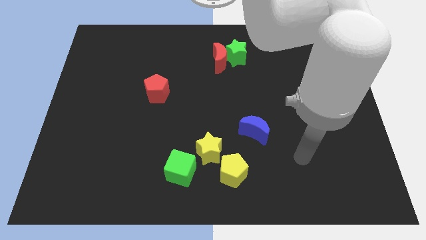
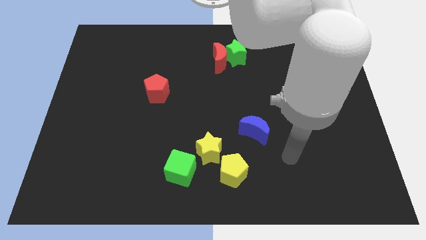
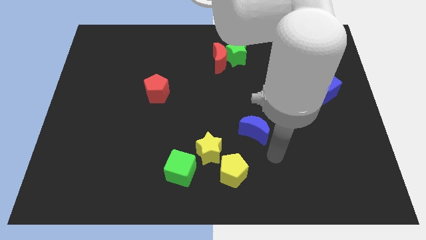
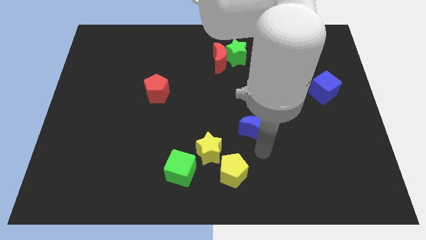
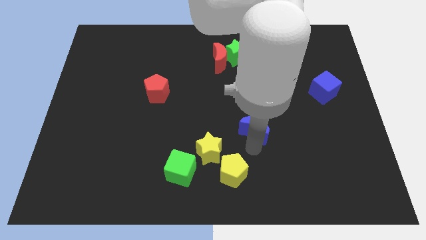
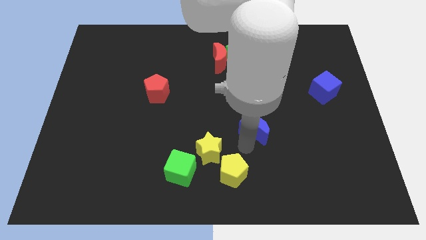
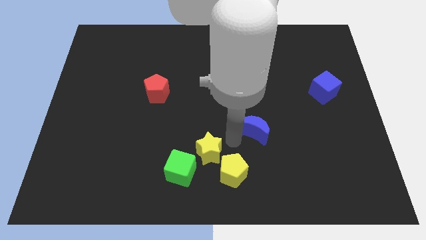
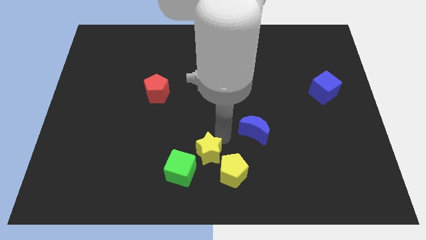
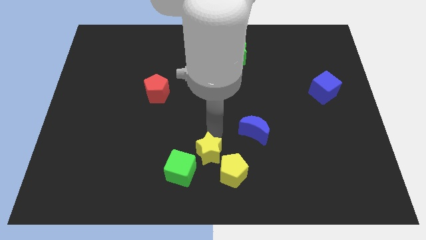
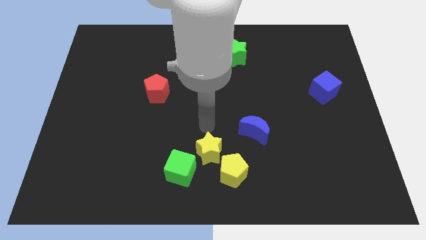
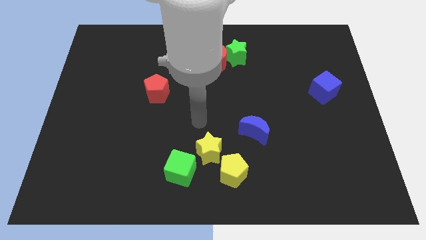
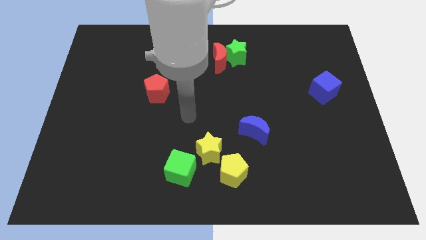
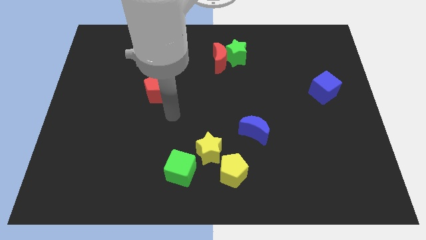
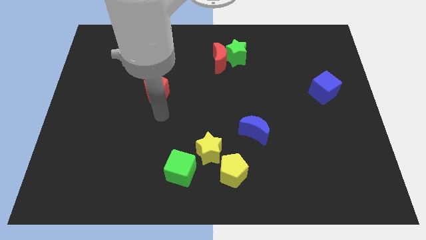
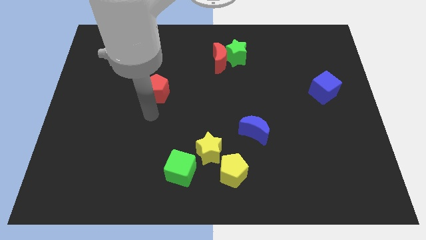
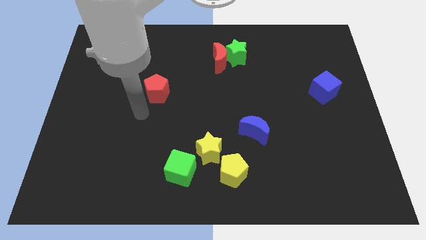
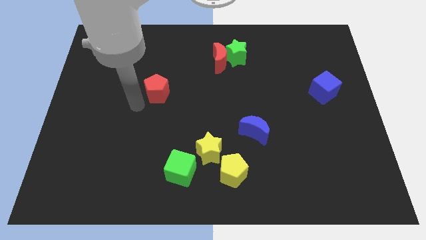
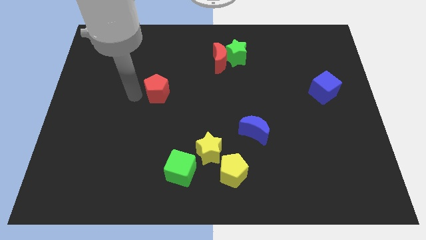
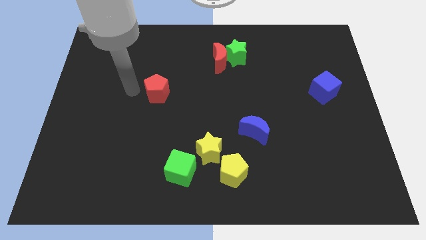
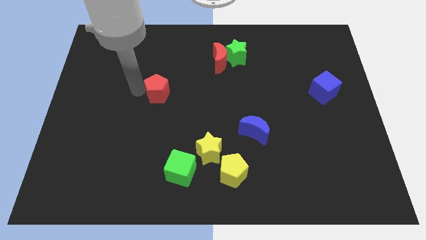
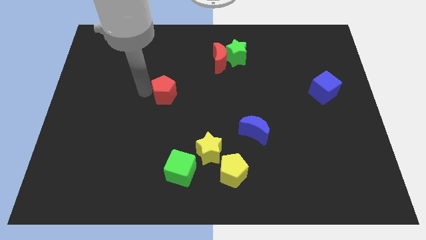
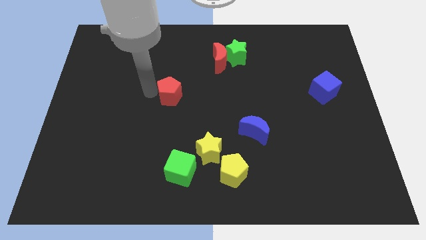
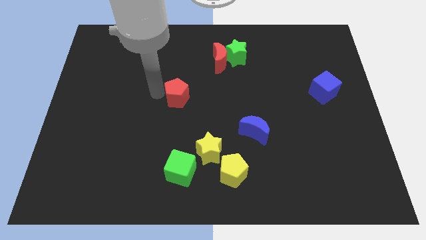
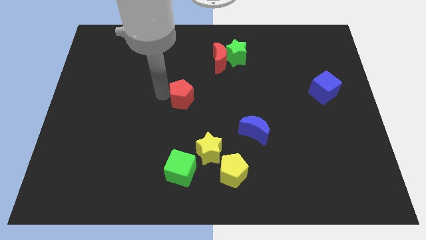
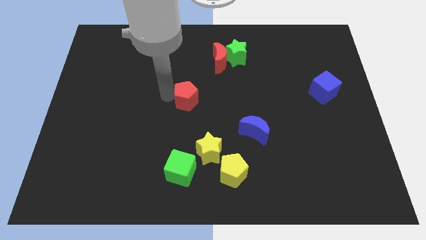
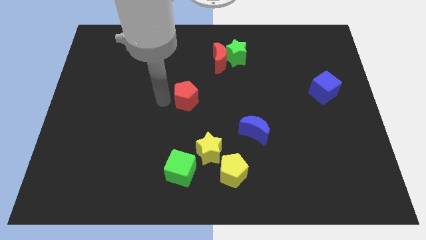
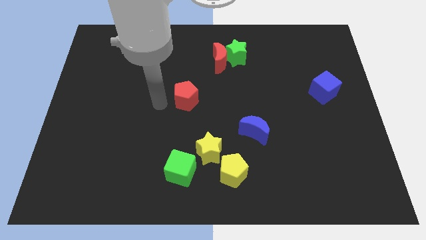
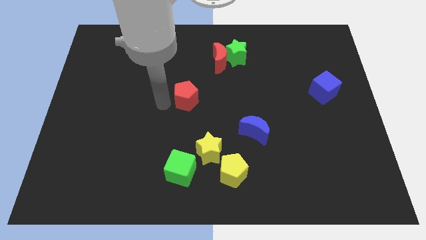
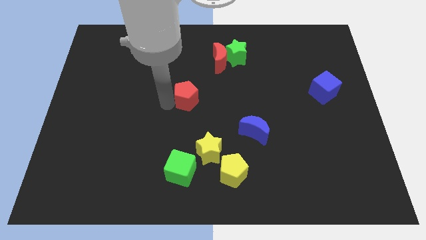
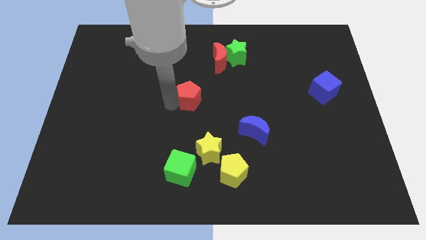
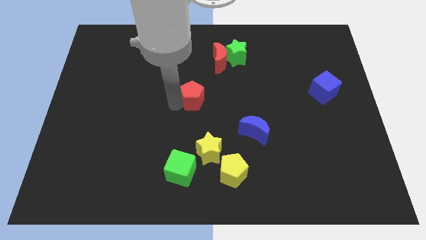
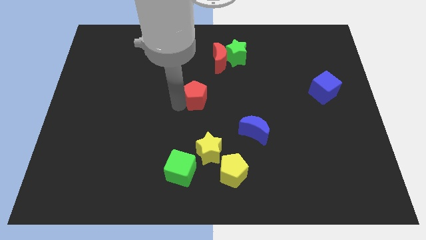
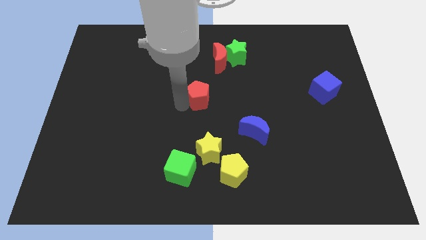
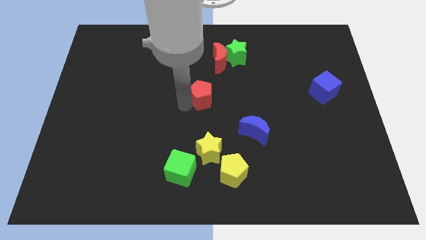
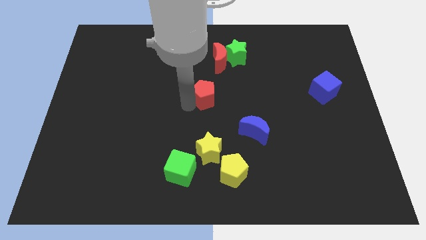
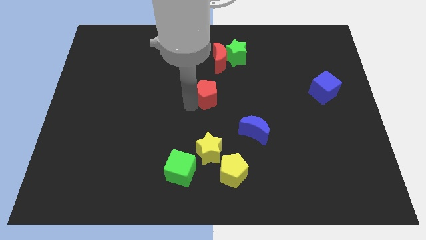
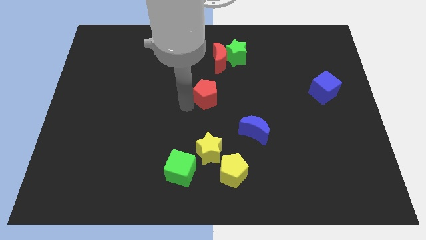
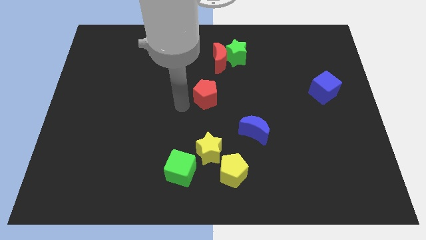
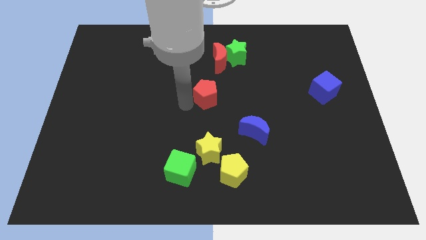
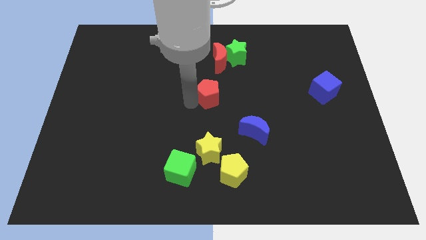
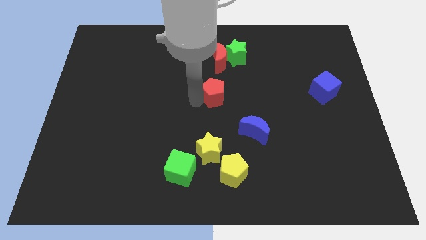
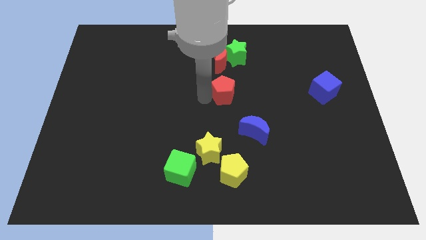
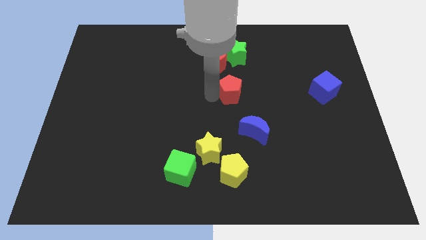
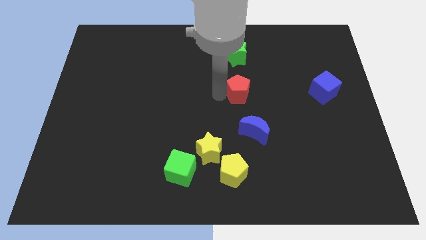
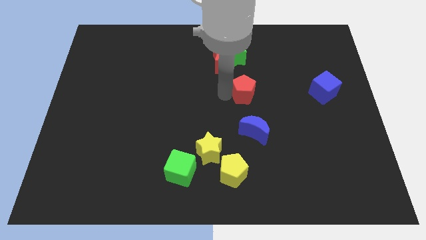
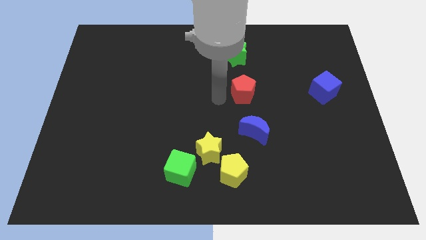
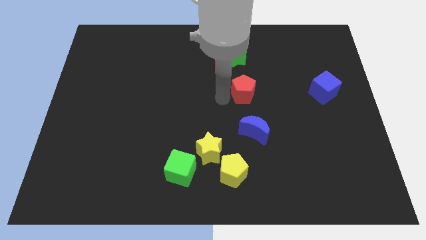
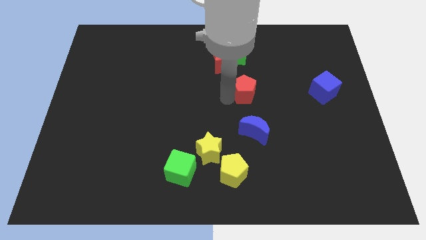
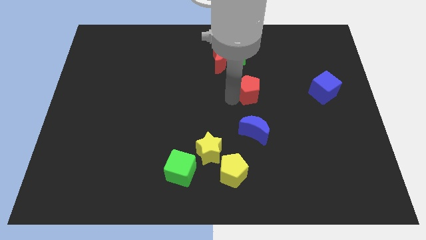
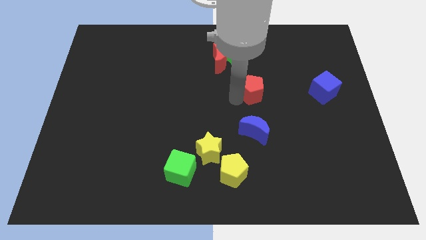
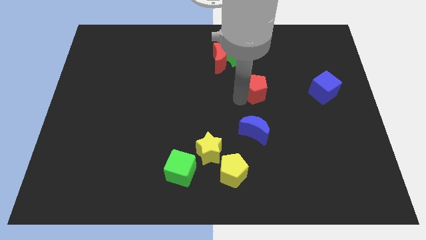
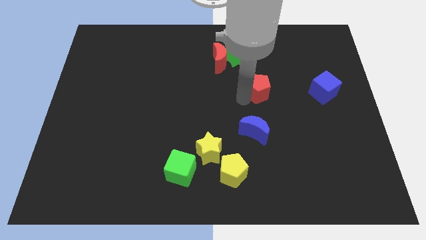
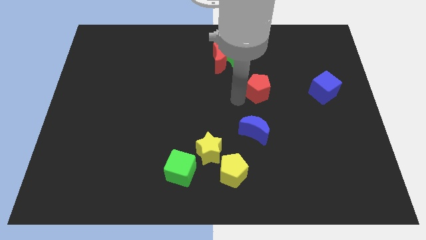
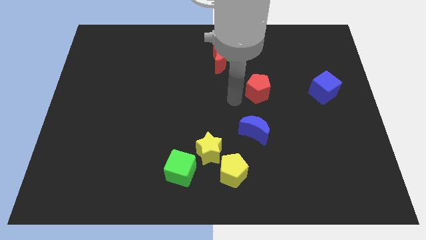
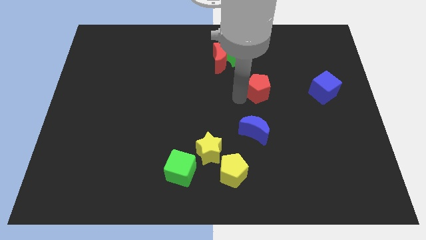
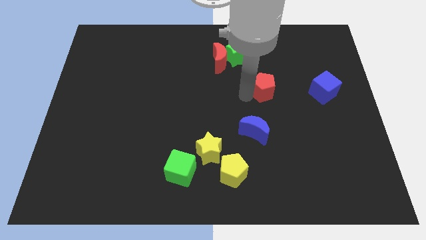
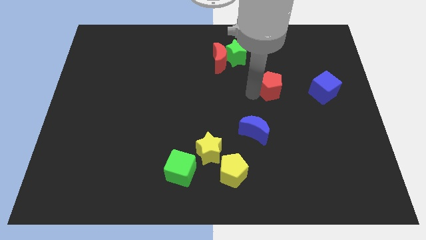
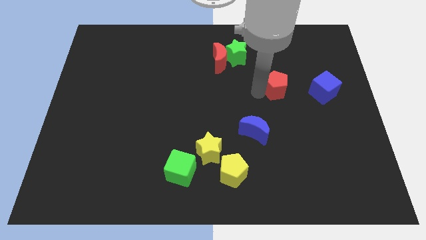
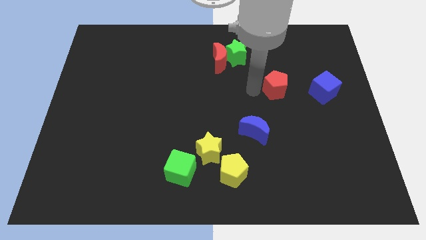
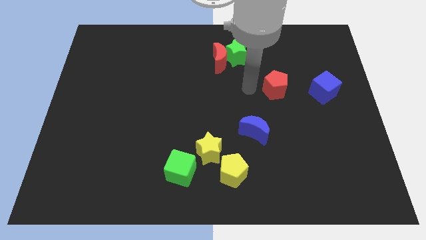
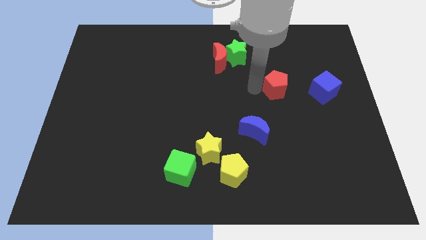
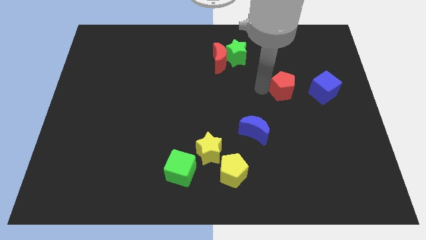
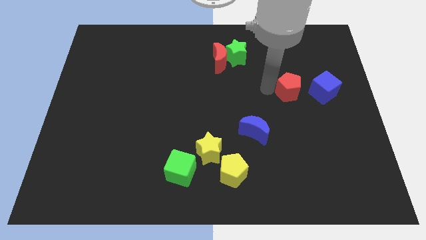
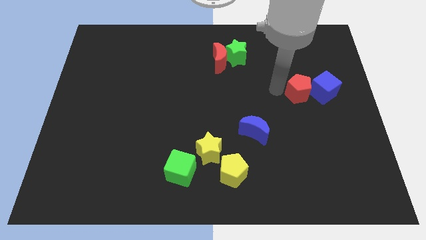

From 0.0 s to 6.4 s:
slide the red pentagon to the blue cube
